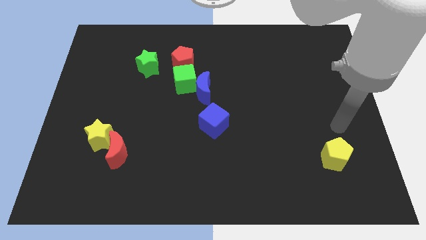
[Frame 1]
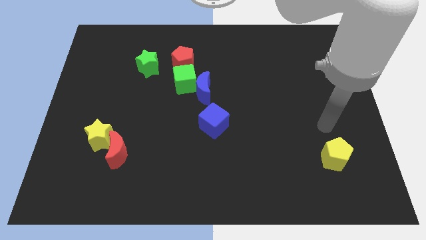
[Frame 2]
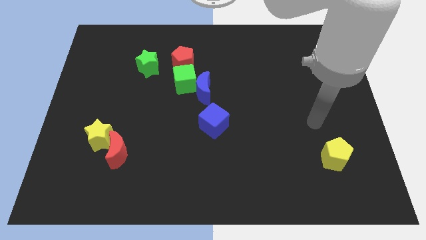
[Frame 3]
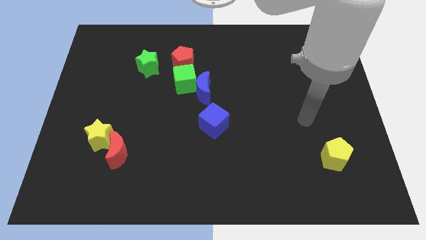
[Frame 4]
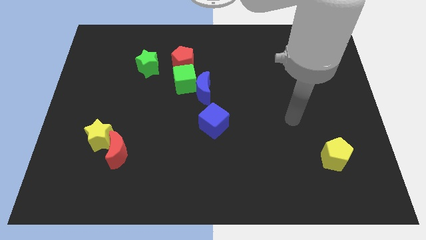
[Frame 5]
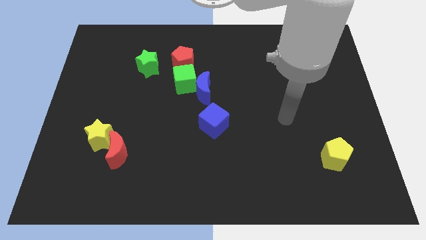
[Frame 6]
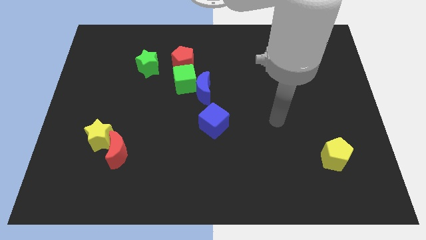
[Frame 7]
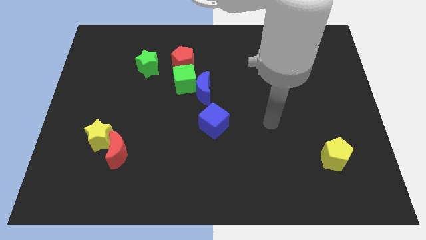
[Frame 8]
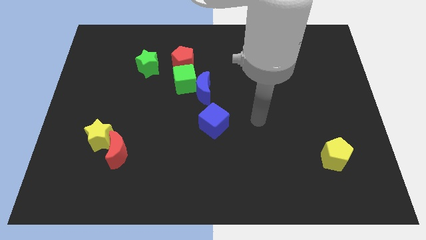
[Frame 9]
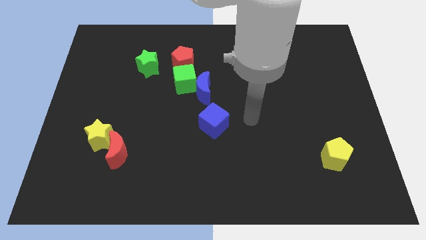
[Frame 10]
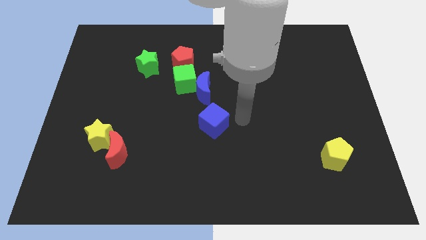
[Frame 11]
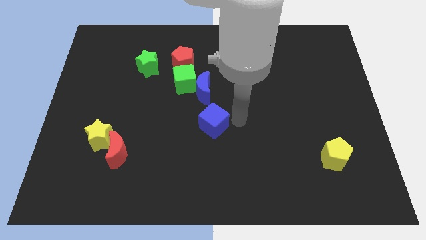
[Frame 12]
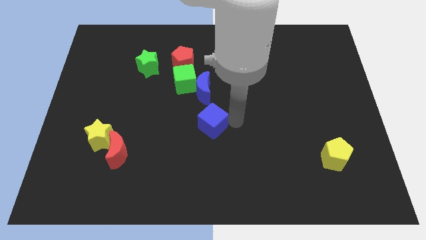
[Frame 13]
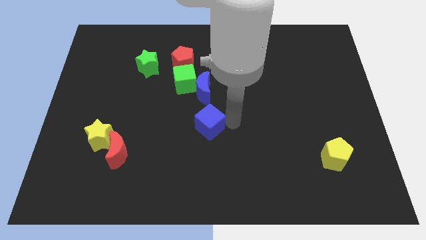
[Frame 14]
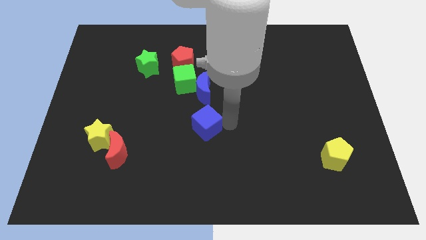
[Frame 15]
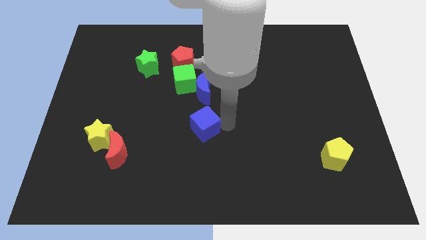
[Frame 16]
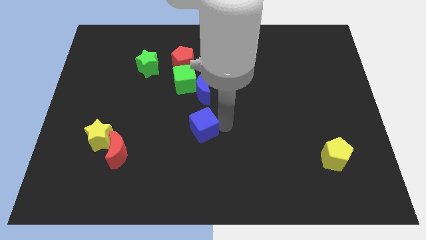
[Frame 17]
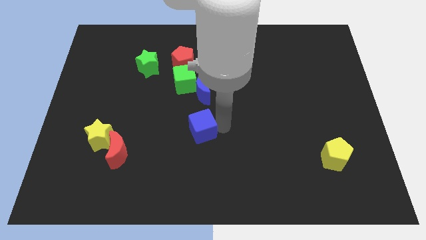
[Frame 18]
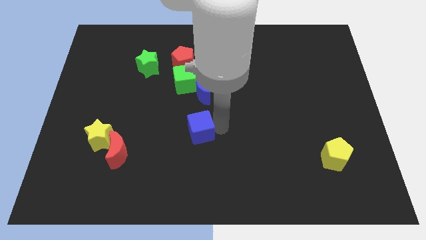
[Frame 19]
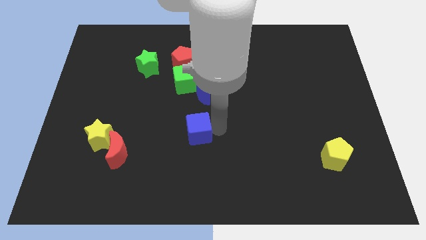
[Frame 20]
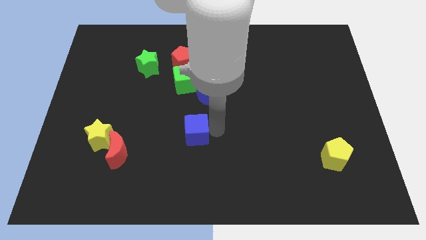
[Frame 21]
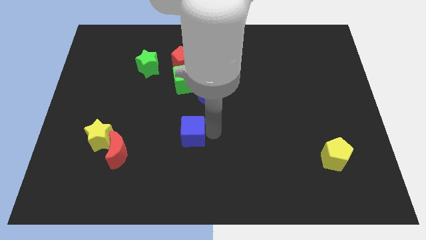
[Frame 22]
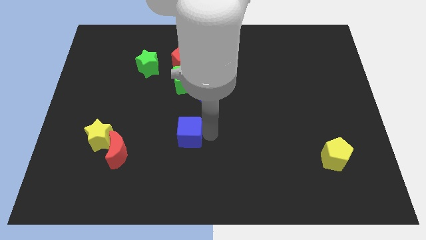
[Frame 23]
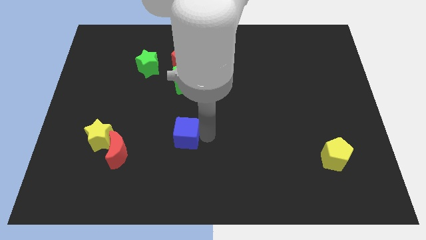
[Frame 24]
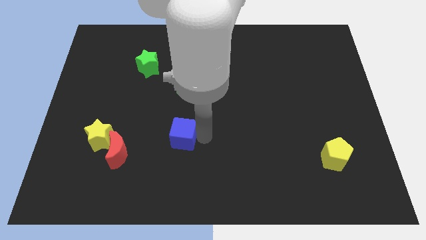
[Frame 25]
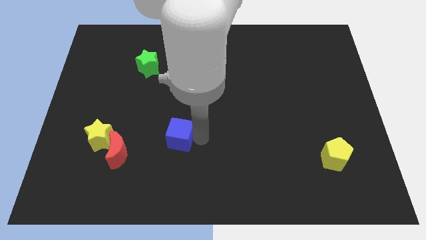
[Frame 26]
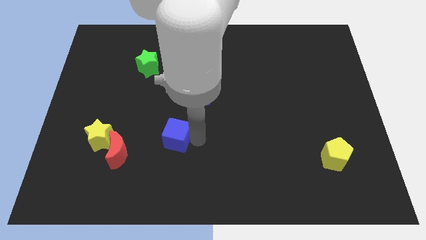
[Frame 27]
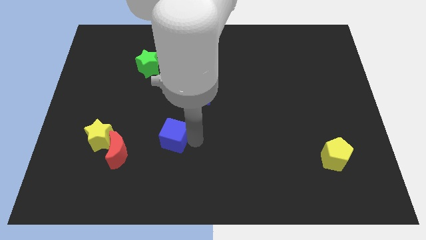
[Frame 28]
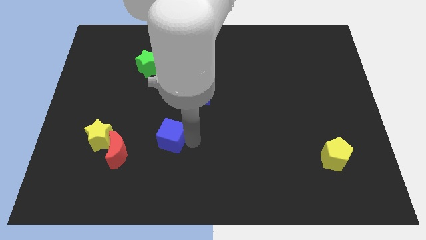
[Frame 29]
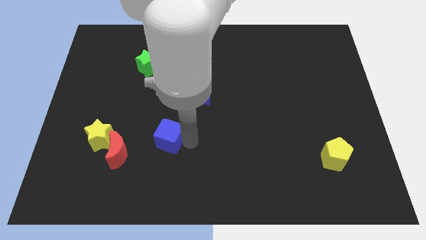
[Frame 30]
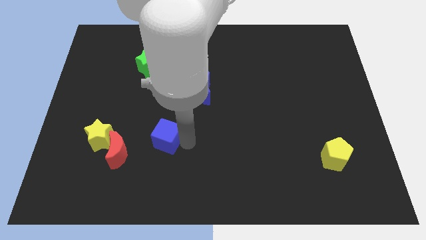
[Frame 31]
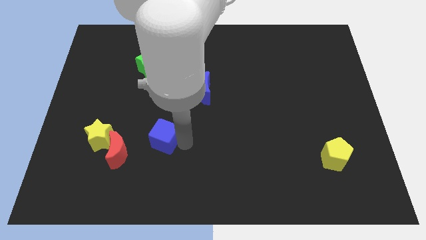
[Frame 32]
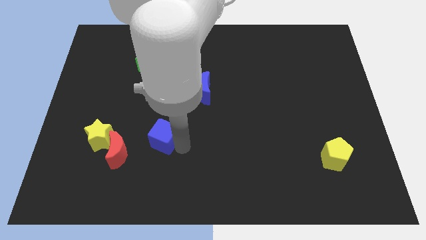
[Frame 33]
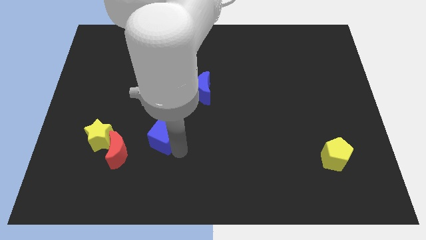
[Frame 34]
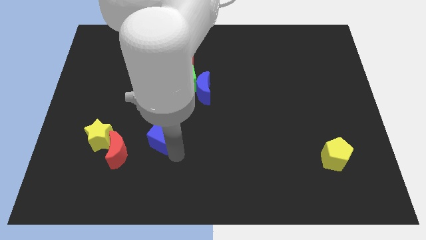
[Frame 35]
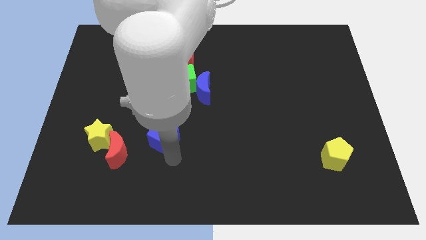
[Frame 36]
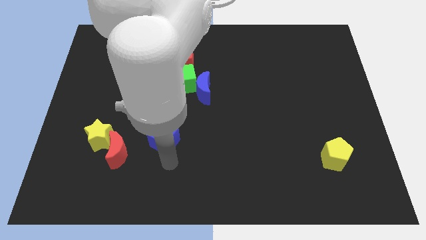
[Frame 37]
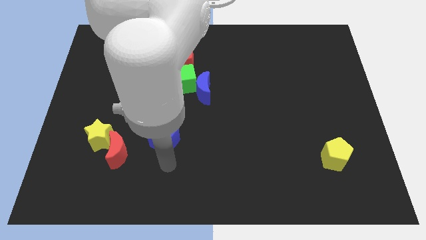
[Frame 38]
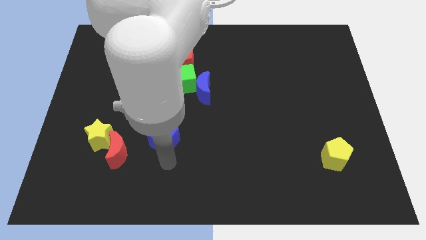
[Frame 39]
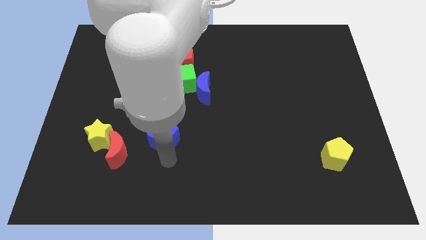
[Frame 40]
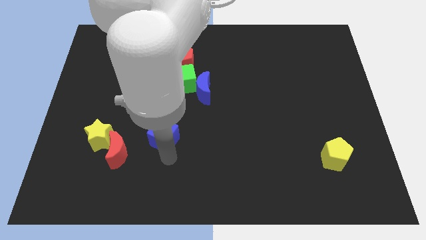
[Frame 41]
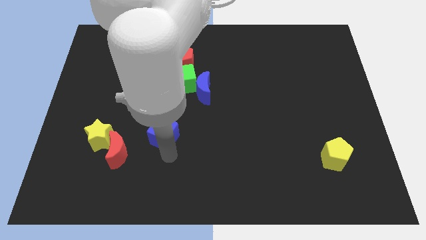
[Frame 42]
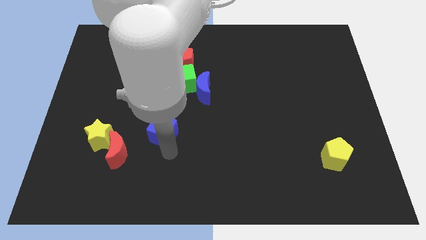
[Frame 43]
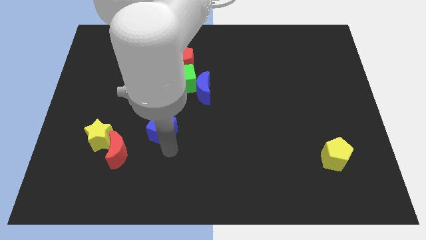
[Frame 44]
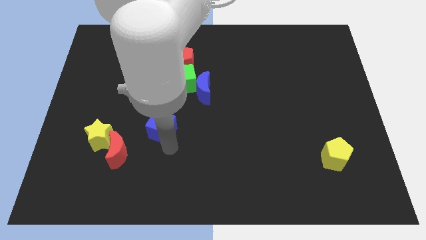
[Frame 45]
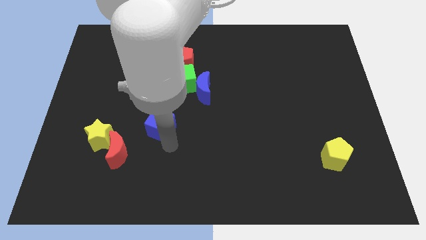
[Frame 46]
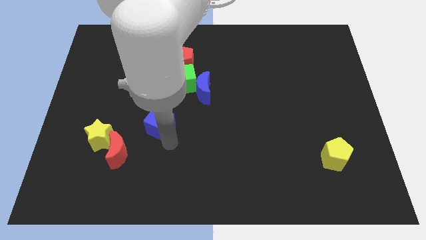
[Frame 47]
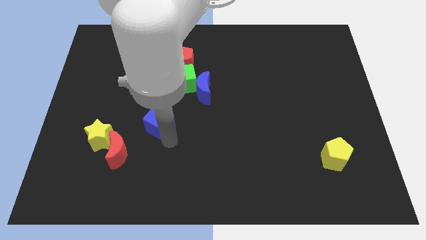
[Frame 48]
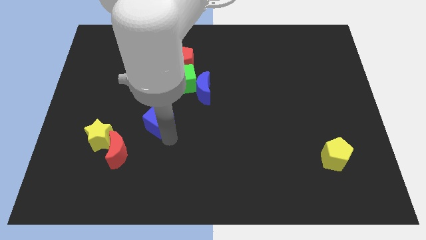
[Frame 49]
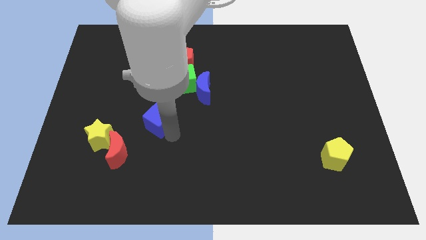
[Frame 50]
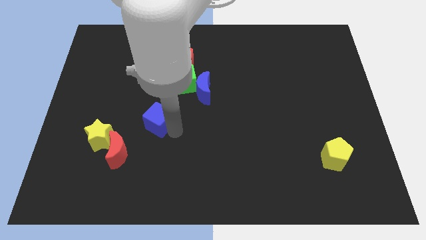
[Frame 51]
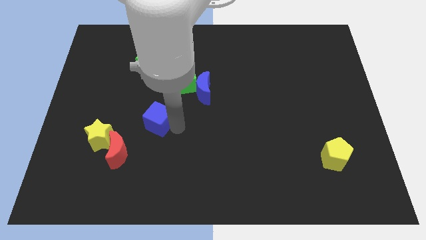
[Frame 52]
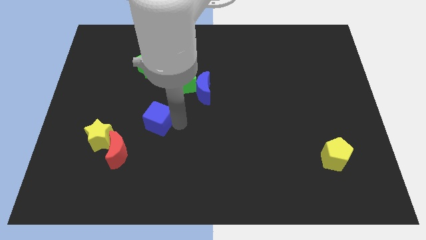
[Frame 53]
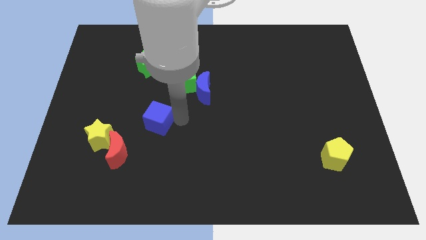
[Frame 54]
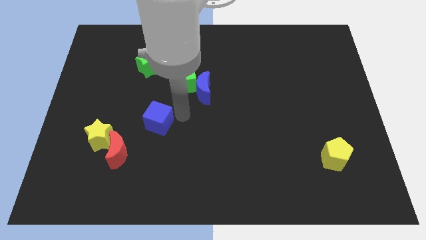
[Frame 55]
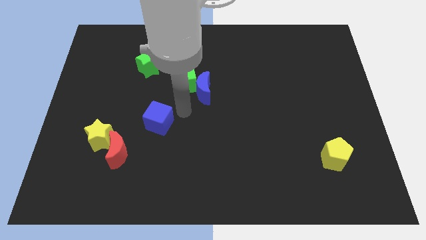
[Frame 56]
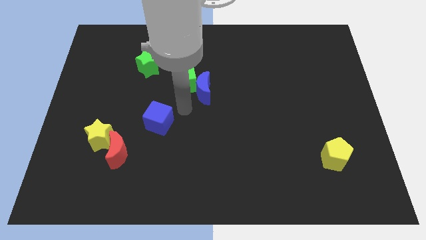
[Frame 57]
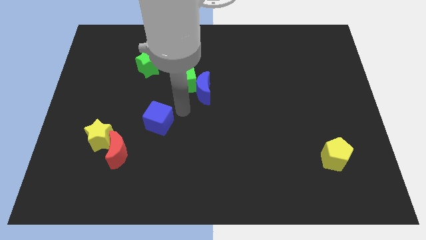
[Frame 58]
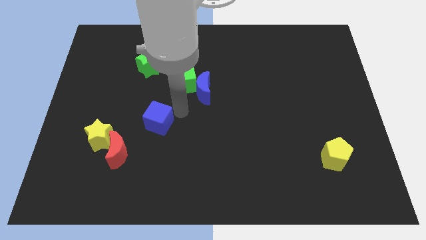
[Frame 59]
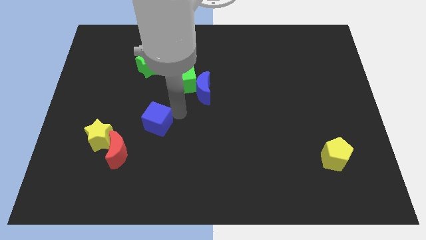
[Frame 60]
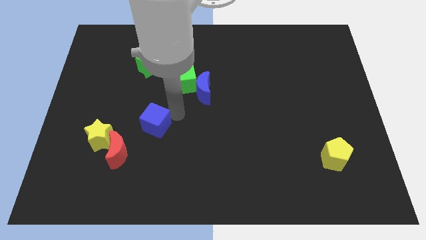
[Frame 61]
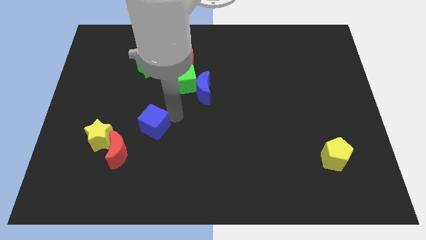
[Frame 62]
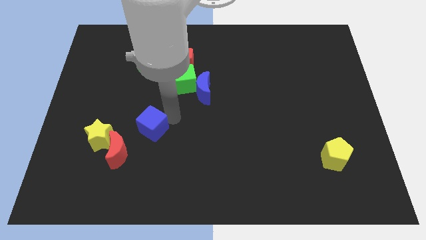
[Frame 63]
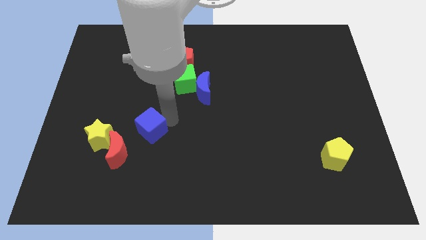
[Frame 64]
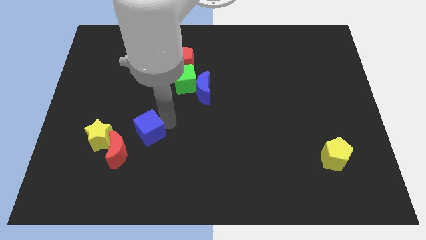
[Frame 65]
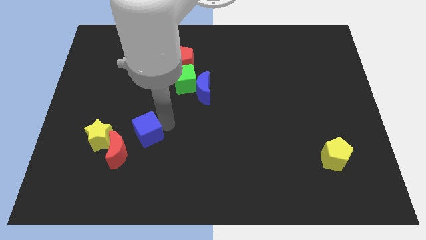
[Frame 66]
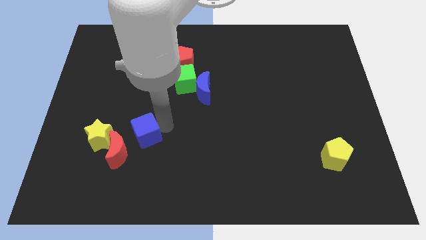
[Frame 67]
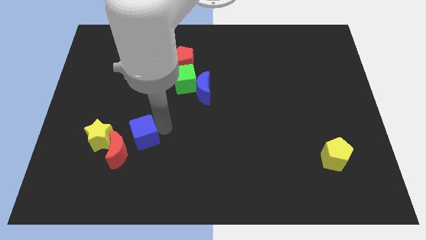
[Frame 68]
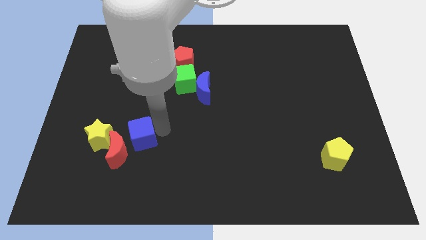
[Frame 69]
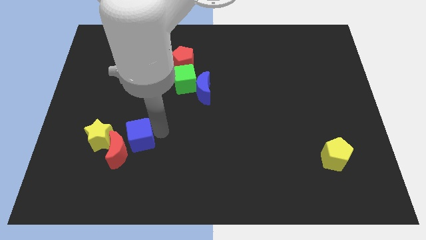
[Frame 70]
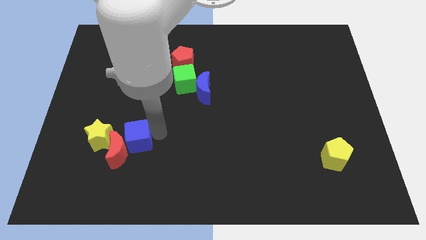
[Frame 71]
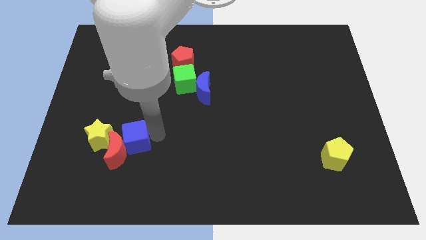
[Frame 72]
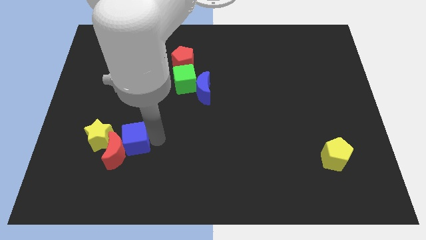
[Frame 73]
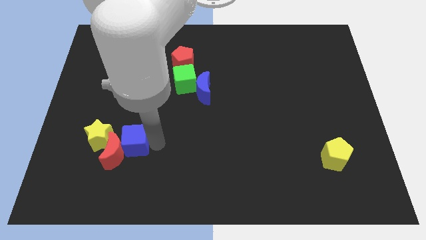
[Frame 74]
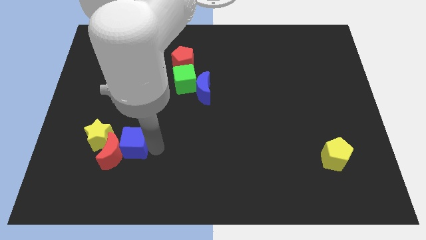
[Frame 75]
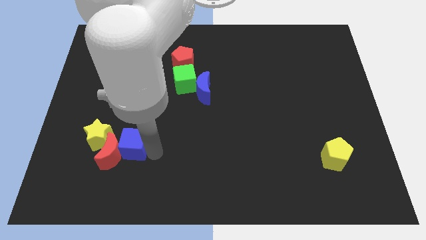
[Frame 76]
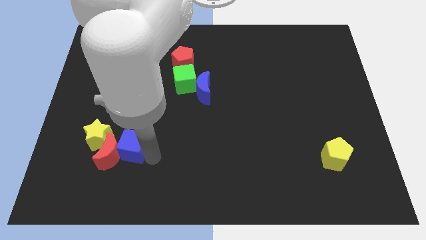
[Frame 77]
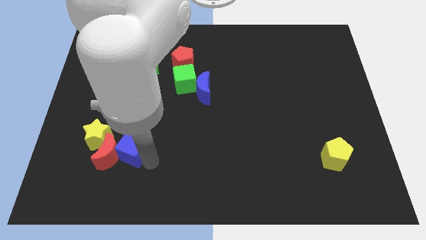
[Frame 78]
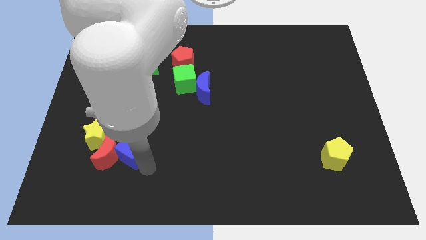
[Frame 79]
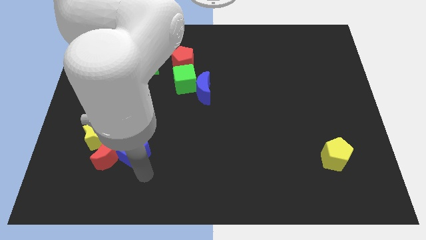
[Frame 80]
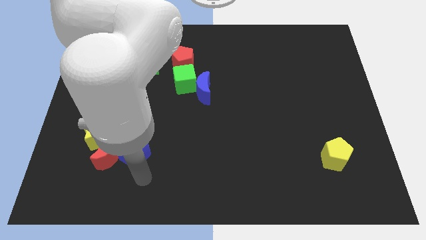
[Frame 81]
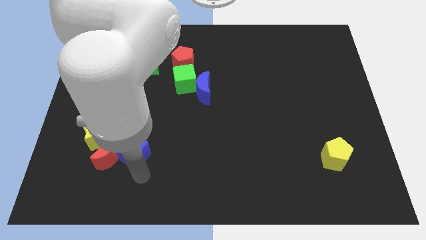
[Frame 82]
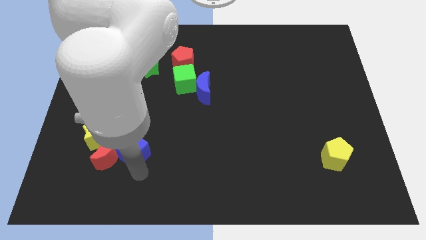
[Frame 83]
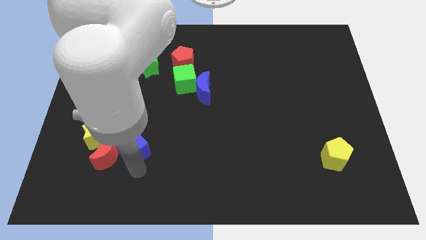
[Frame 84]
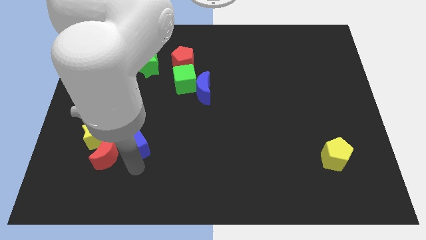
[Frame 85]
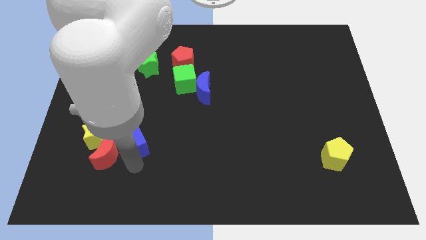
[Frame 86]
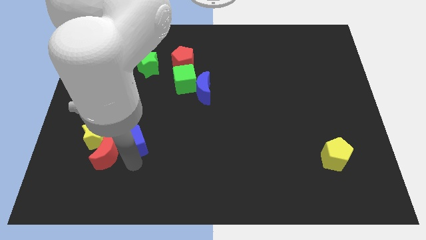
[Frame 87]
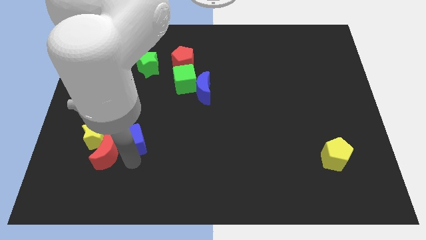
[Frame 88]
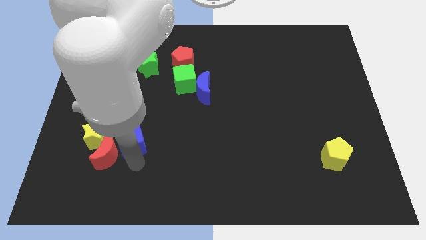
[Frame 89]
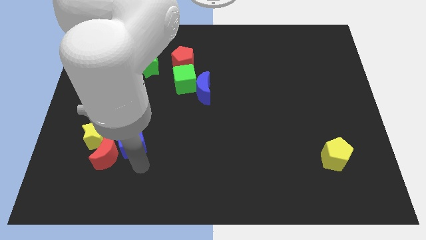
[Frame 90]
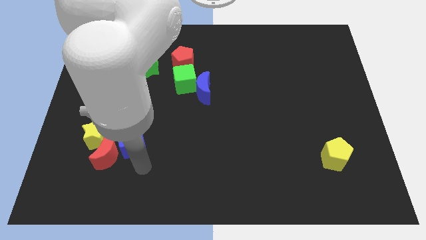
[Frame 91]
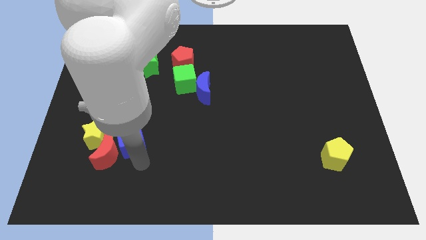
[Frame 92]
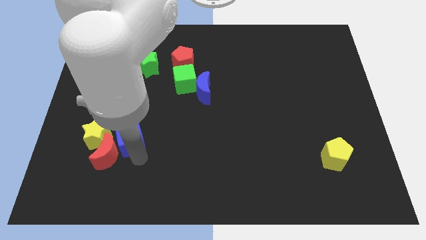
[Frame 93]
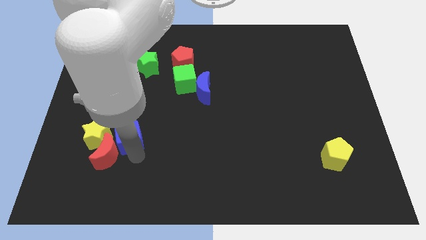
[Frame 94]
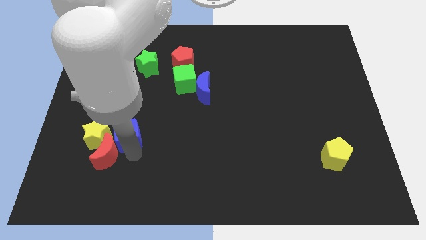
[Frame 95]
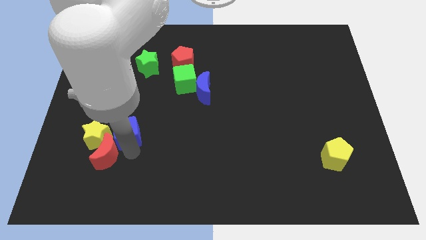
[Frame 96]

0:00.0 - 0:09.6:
slide the blue cube to the yellow star
